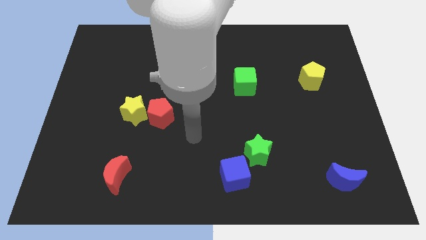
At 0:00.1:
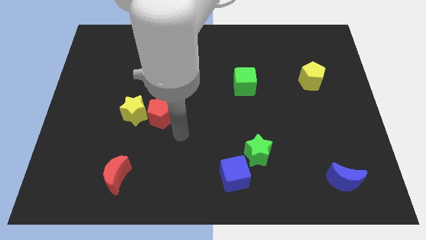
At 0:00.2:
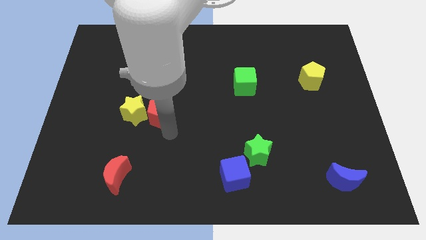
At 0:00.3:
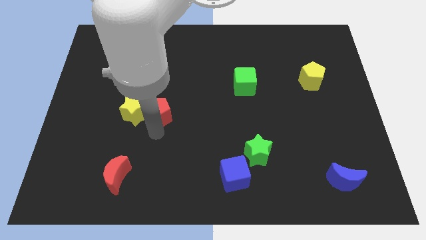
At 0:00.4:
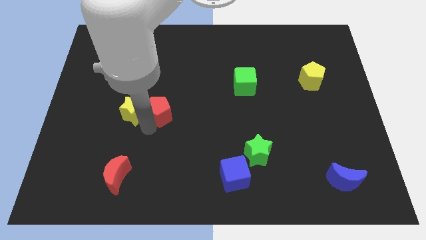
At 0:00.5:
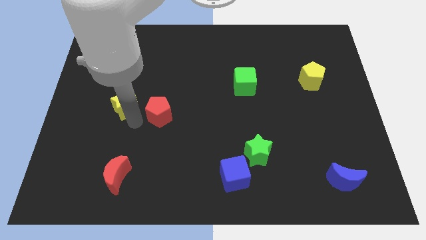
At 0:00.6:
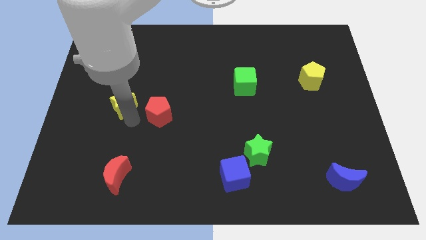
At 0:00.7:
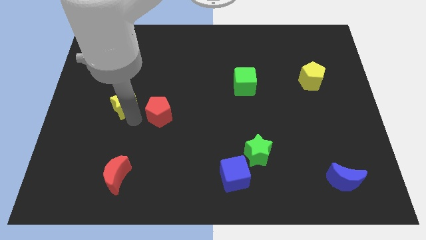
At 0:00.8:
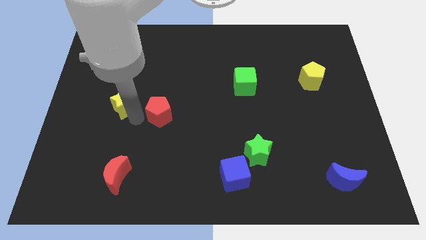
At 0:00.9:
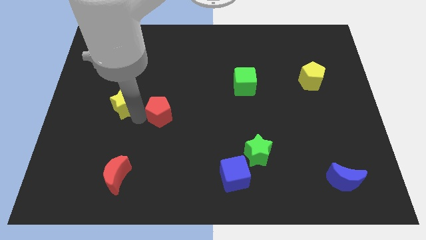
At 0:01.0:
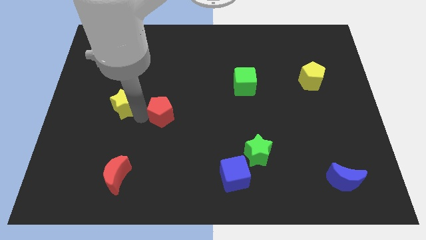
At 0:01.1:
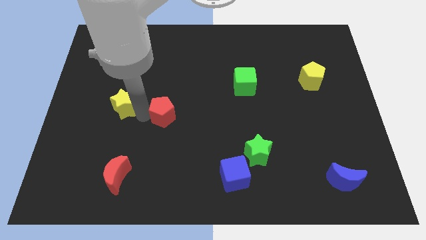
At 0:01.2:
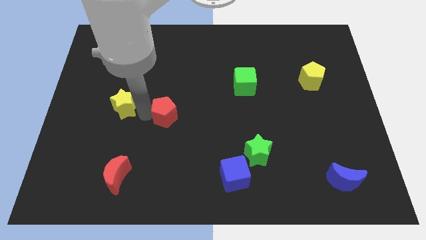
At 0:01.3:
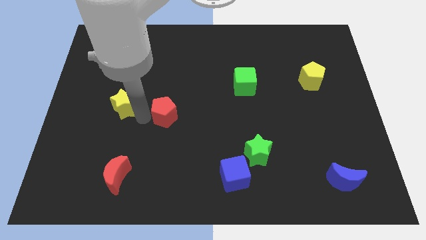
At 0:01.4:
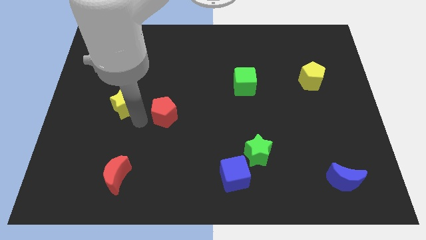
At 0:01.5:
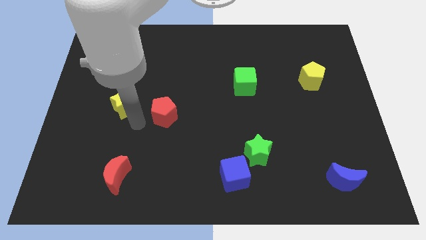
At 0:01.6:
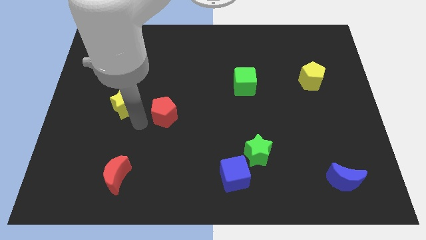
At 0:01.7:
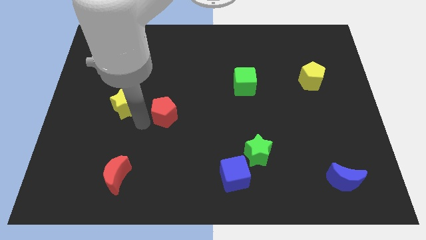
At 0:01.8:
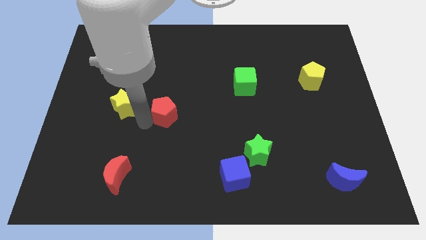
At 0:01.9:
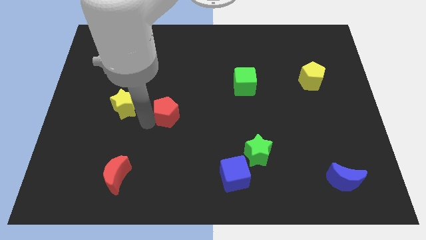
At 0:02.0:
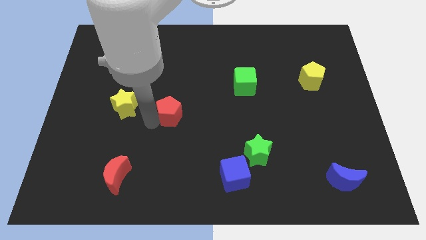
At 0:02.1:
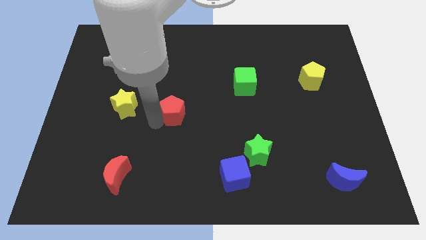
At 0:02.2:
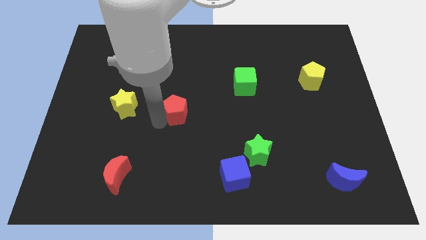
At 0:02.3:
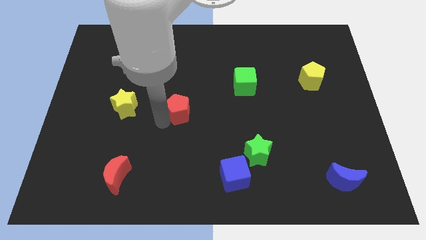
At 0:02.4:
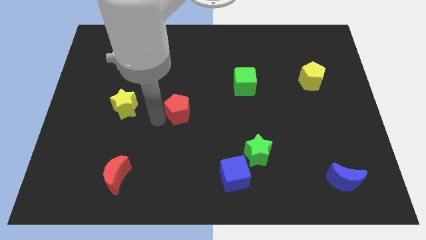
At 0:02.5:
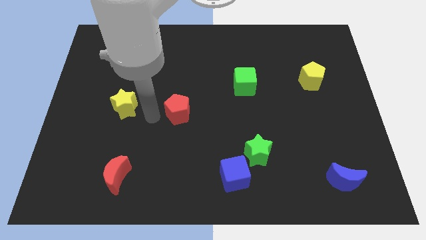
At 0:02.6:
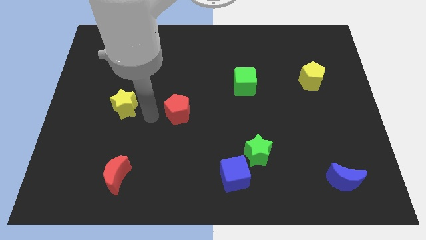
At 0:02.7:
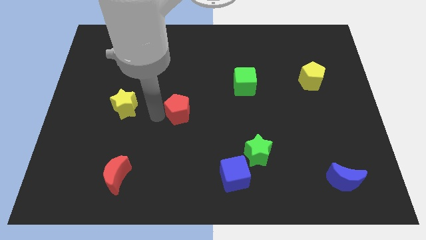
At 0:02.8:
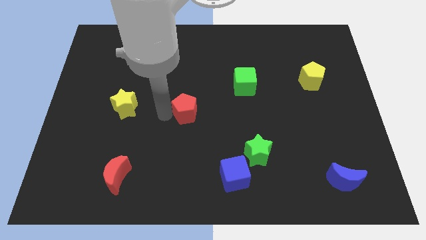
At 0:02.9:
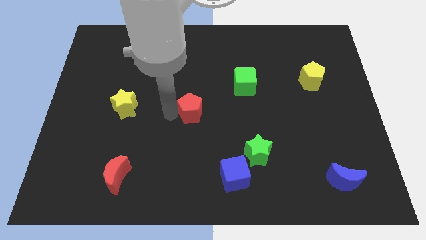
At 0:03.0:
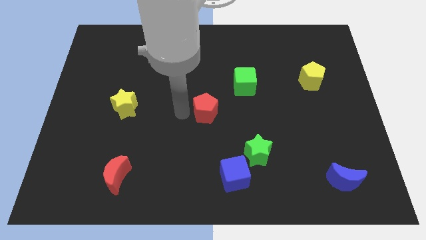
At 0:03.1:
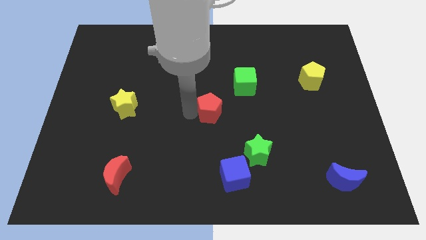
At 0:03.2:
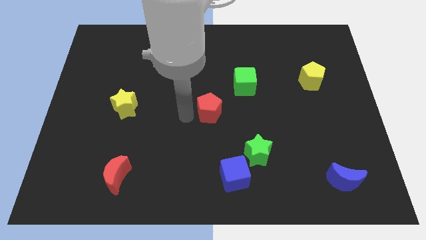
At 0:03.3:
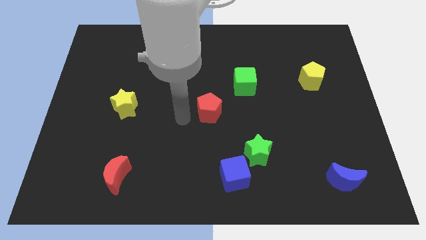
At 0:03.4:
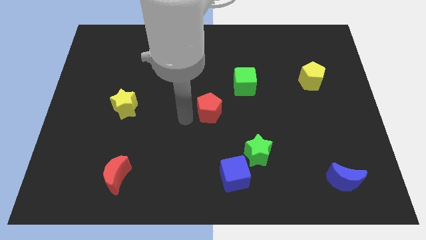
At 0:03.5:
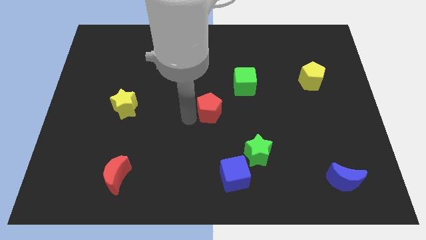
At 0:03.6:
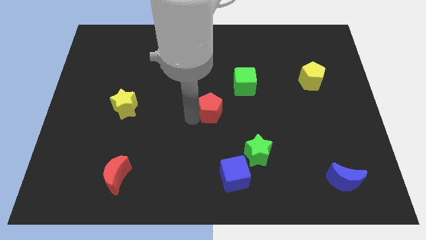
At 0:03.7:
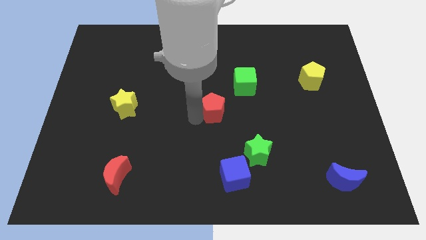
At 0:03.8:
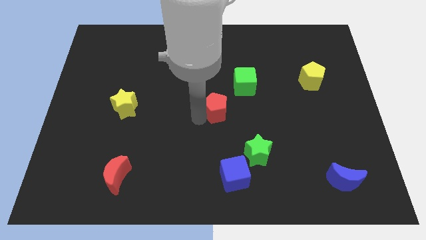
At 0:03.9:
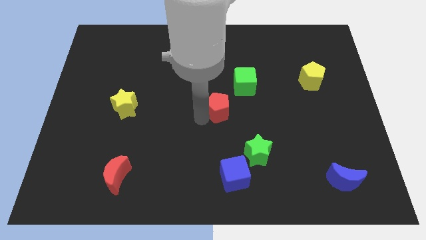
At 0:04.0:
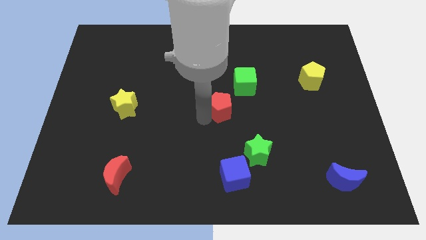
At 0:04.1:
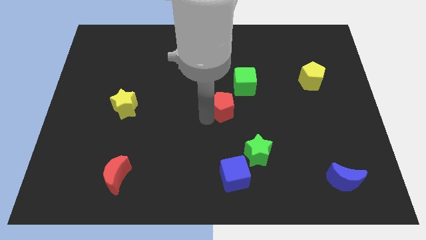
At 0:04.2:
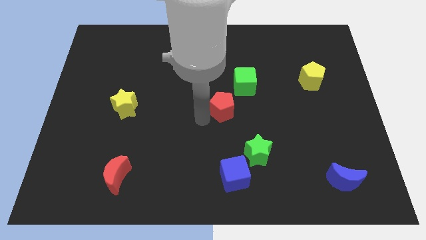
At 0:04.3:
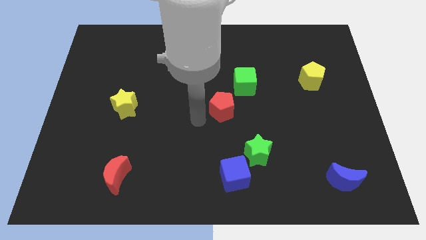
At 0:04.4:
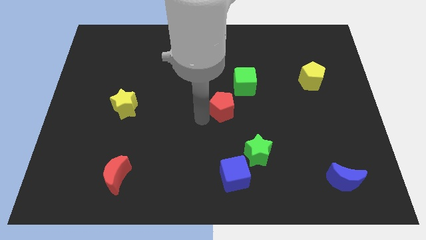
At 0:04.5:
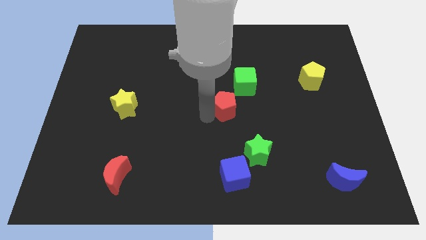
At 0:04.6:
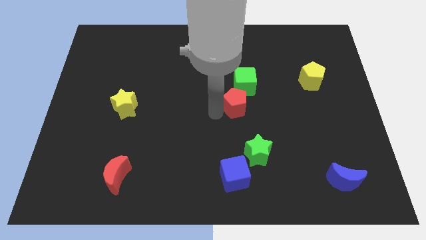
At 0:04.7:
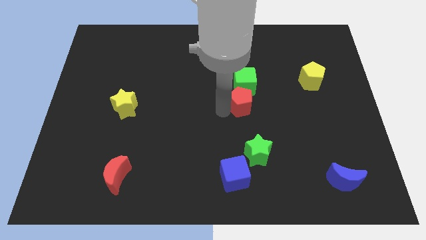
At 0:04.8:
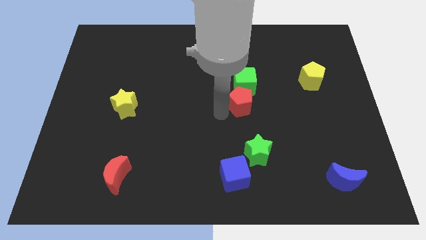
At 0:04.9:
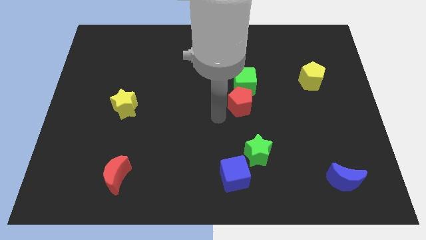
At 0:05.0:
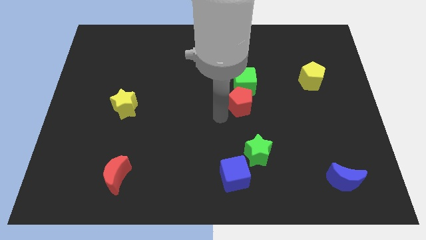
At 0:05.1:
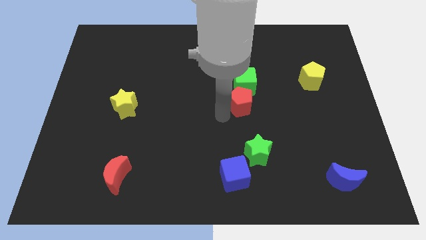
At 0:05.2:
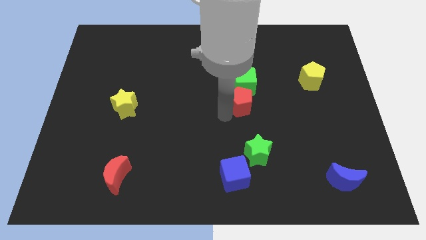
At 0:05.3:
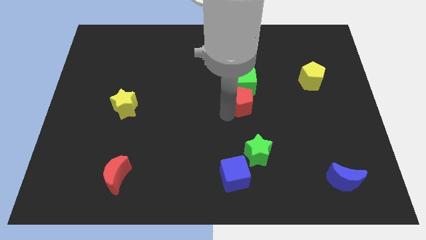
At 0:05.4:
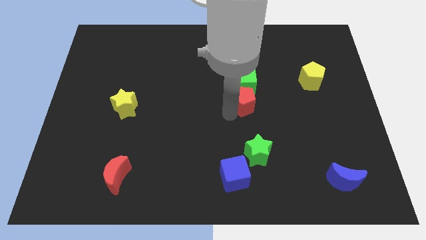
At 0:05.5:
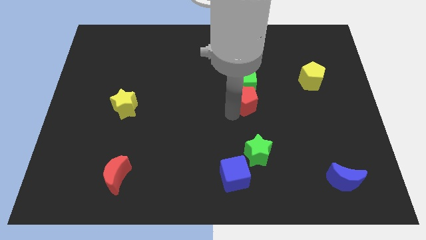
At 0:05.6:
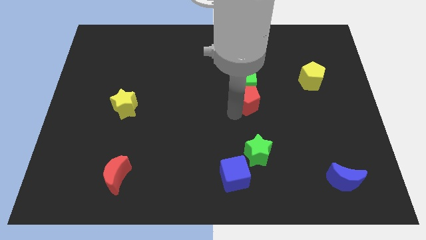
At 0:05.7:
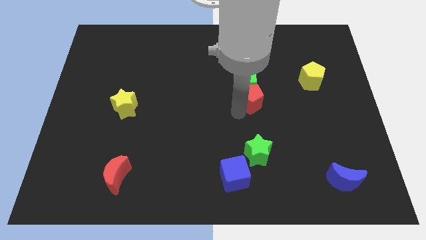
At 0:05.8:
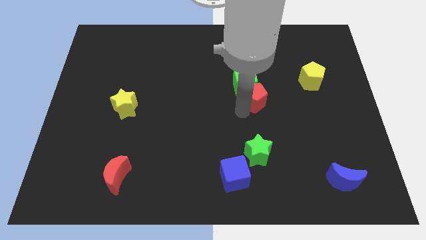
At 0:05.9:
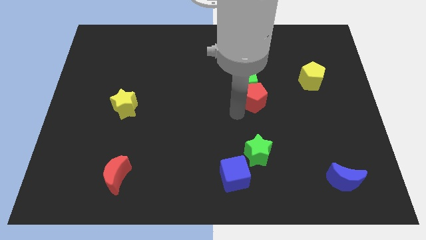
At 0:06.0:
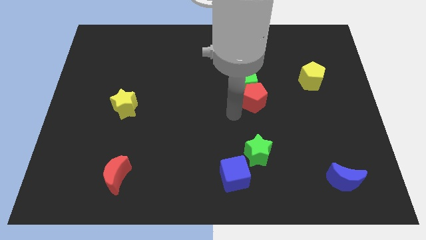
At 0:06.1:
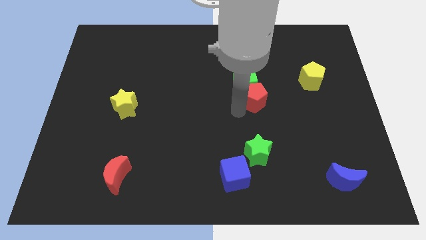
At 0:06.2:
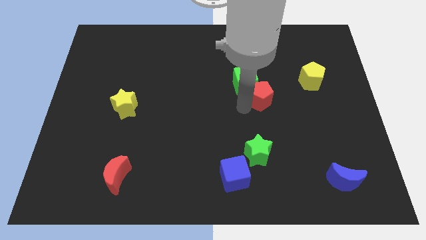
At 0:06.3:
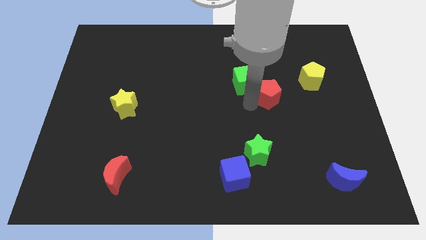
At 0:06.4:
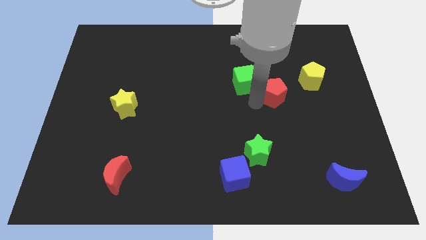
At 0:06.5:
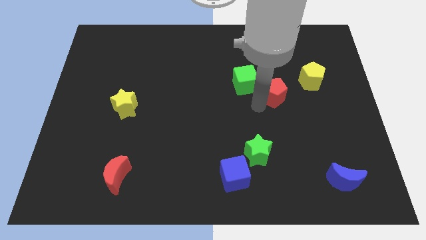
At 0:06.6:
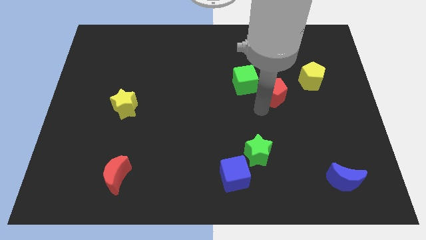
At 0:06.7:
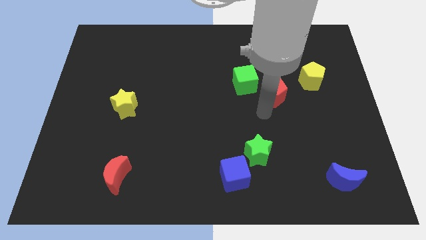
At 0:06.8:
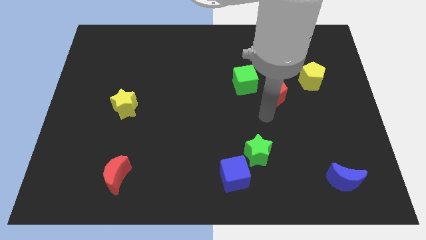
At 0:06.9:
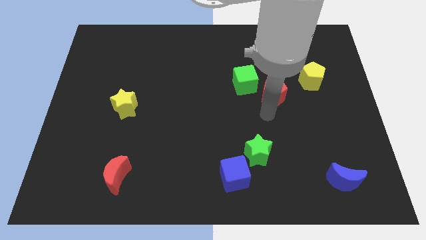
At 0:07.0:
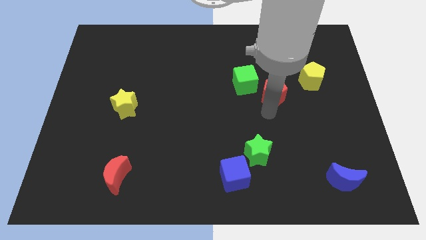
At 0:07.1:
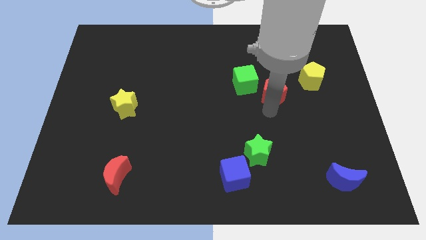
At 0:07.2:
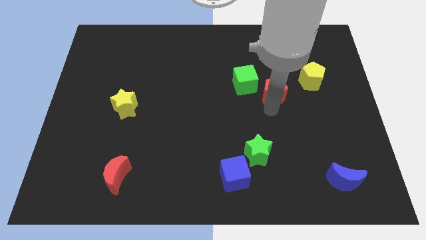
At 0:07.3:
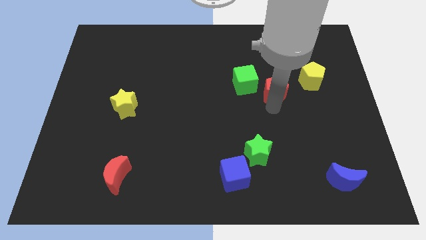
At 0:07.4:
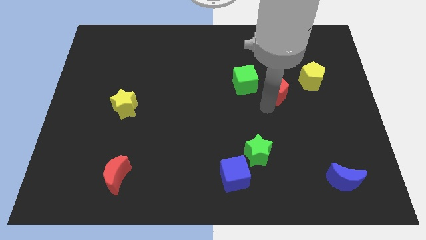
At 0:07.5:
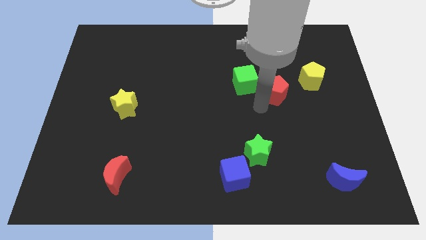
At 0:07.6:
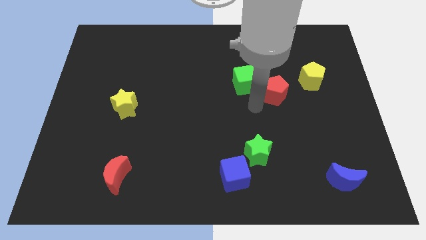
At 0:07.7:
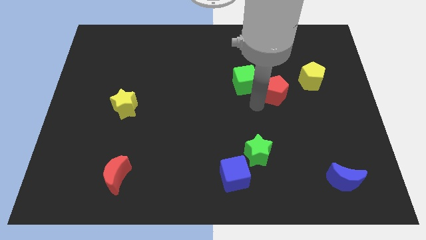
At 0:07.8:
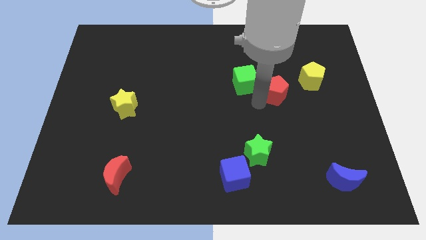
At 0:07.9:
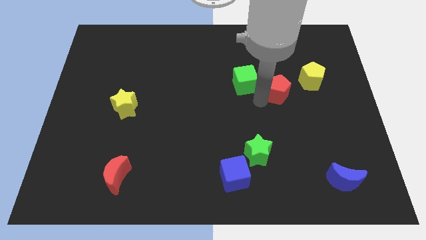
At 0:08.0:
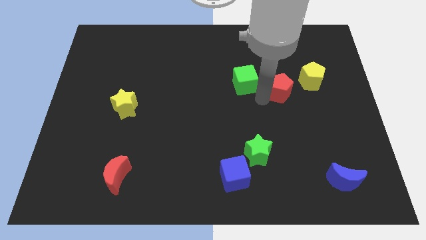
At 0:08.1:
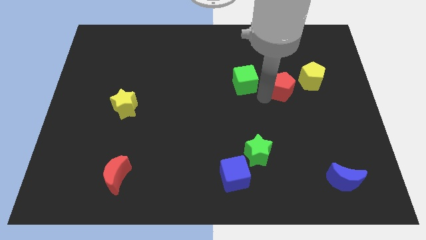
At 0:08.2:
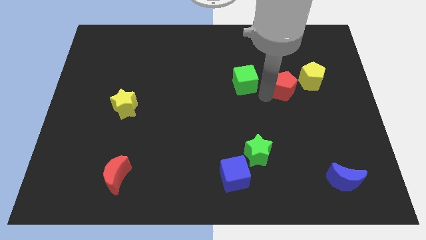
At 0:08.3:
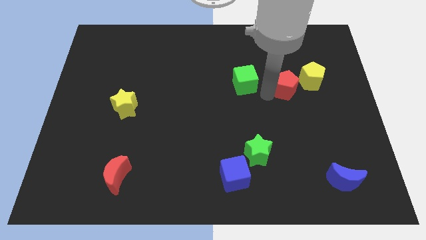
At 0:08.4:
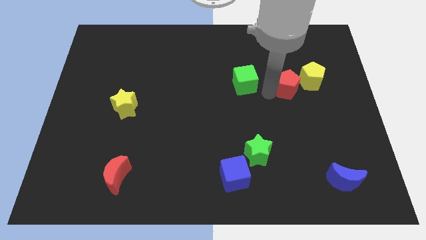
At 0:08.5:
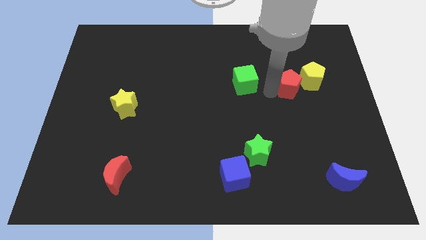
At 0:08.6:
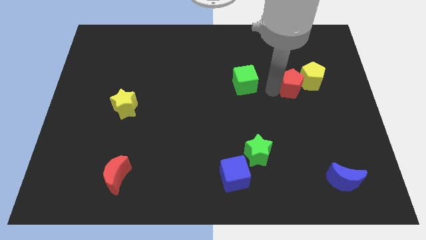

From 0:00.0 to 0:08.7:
move the red pentagon towards the yellow pentagon
